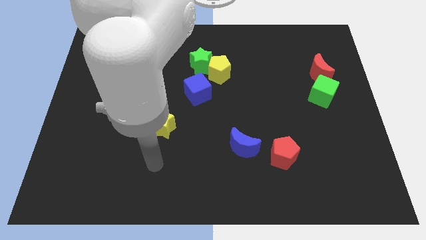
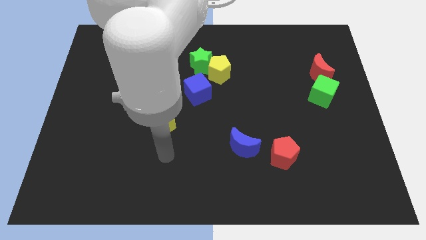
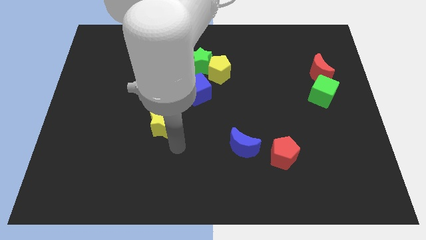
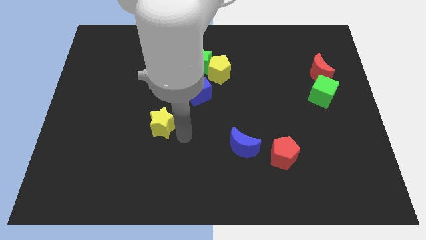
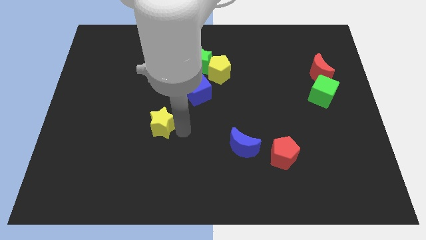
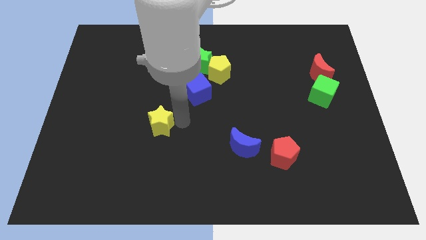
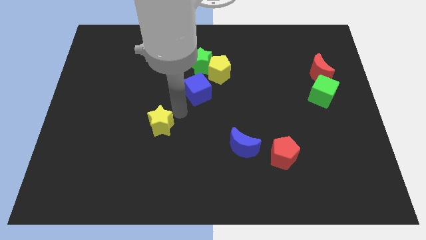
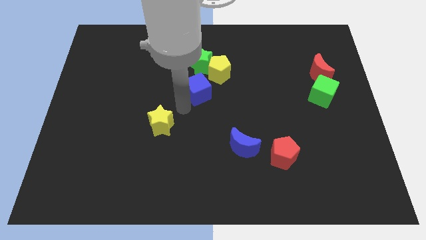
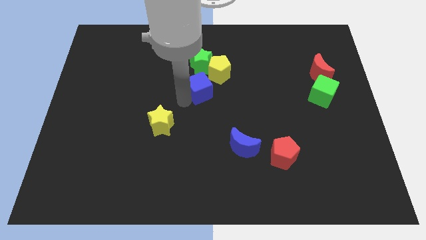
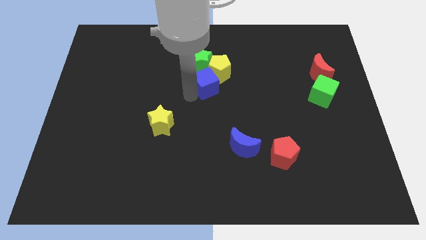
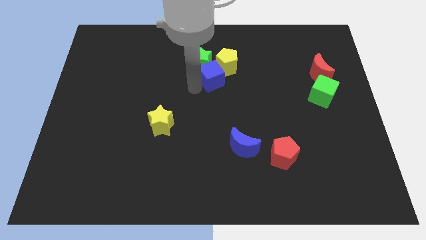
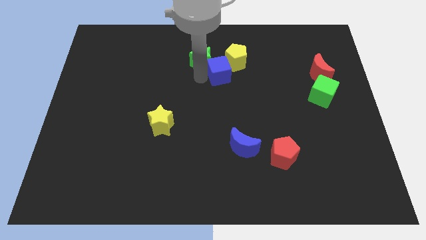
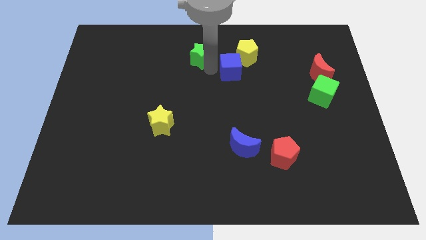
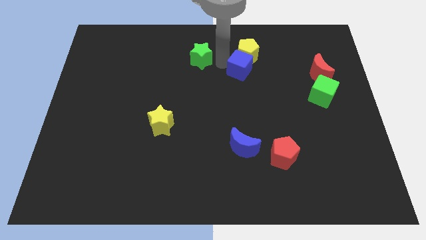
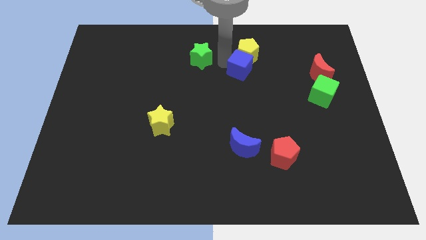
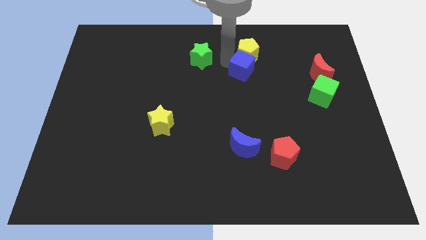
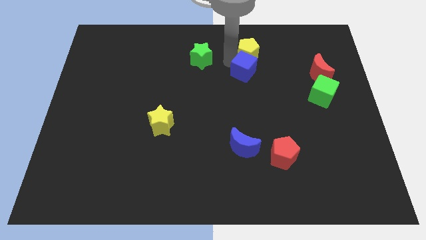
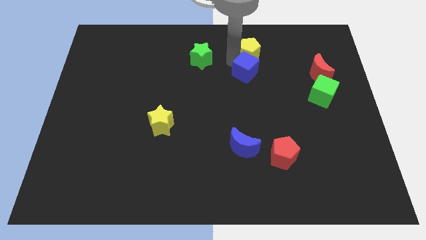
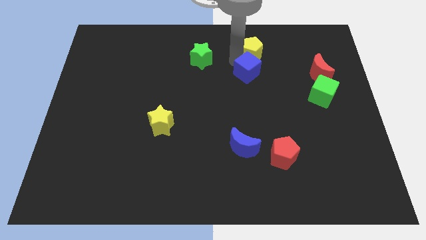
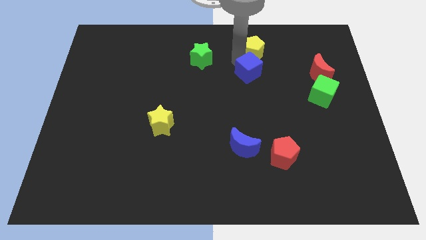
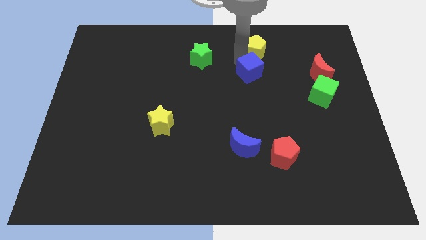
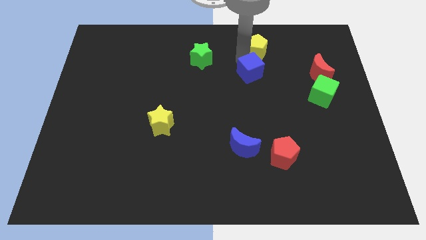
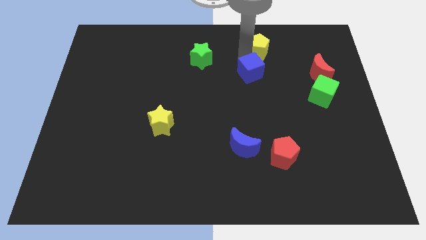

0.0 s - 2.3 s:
separate the yellow pentagon from the green star and blue cube

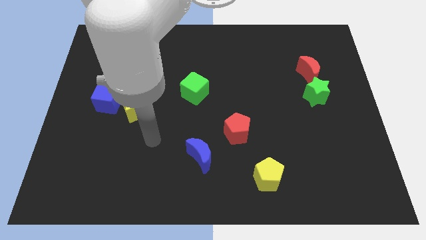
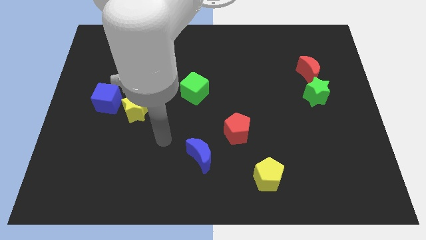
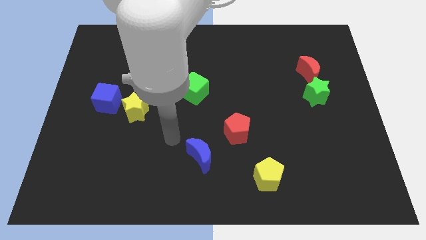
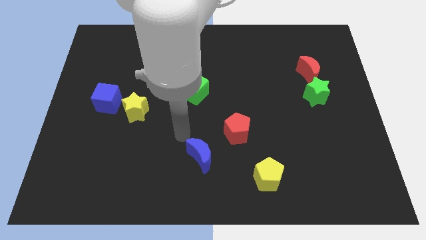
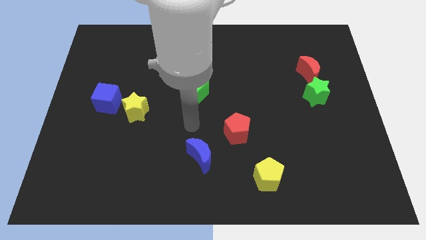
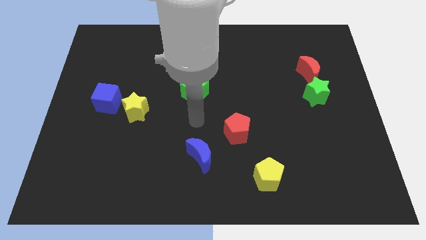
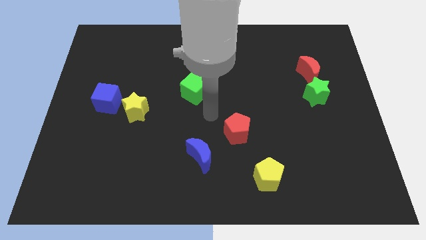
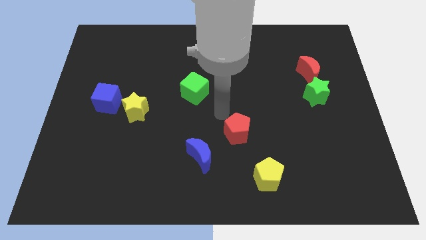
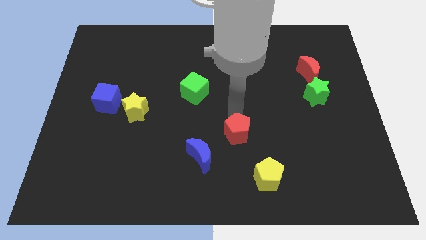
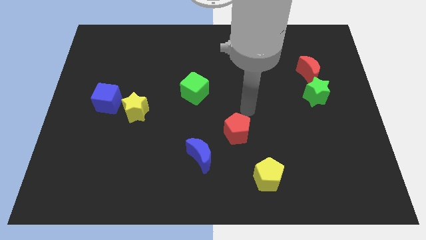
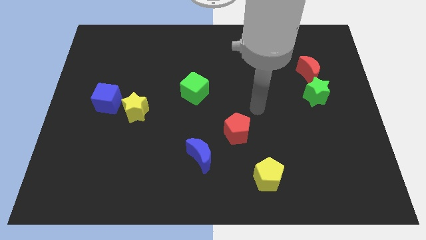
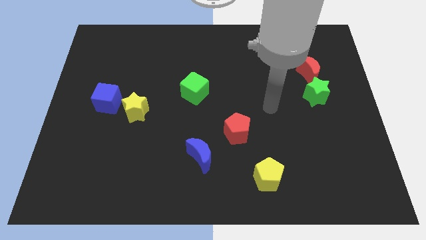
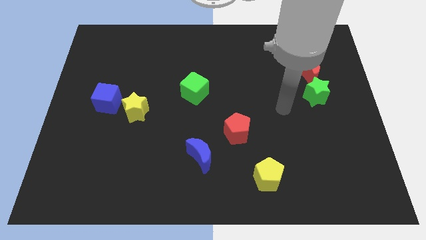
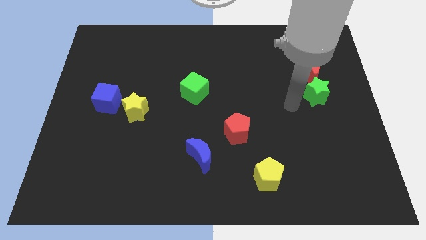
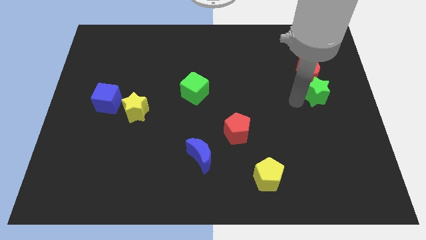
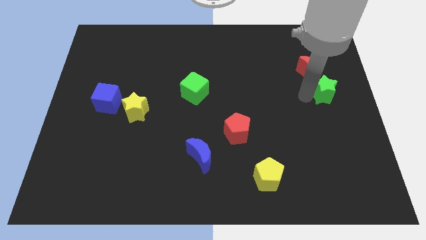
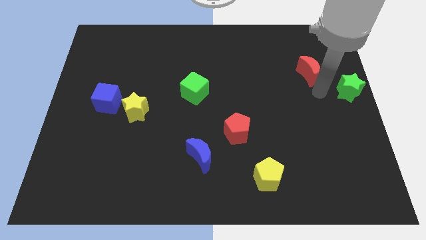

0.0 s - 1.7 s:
separate the red moon from the green star

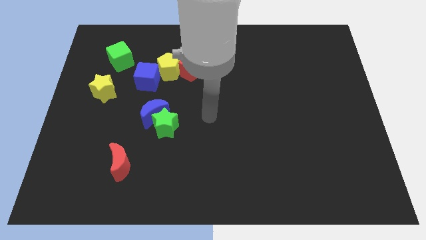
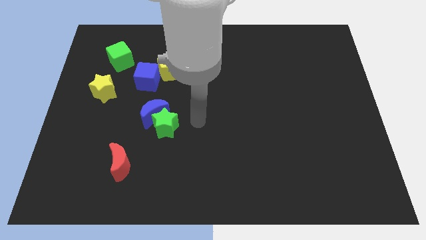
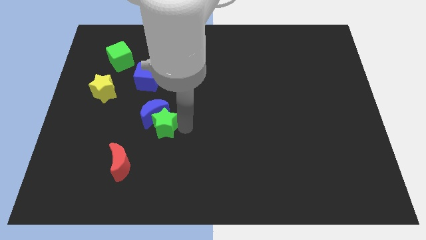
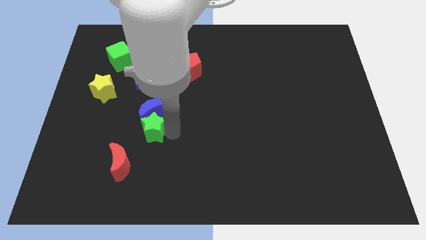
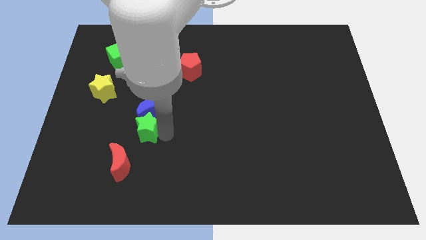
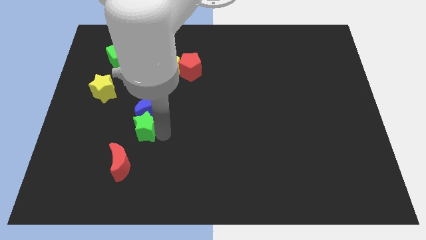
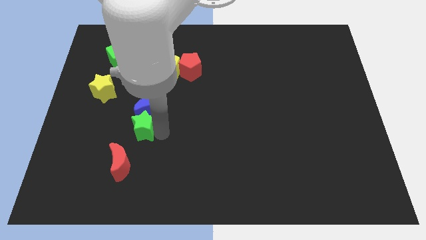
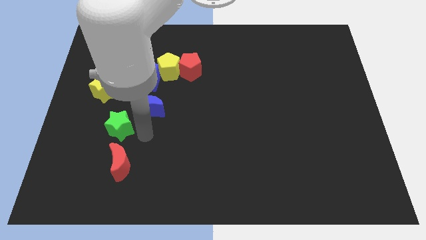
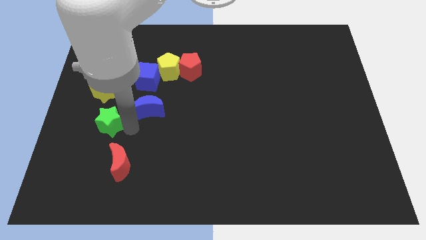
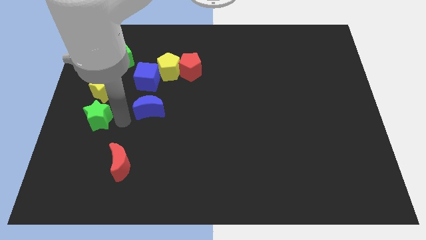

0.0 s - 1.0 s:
move the blue moon away from the green star

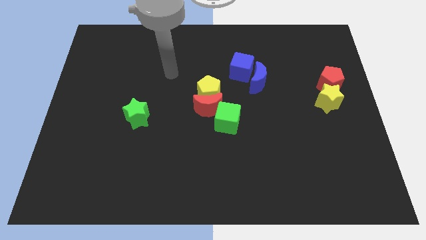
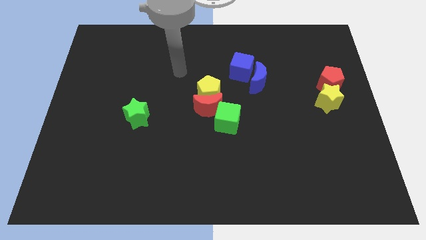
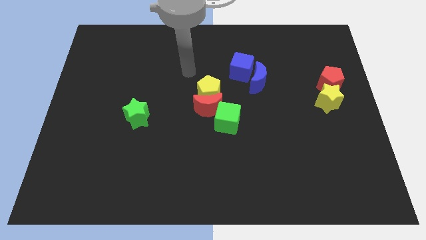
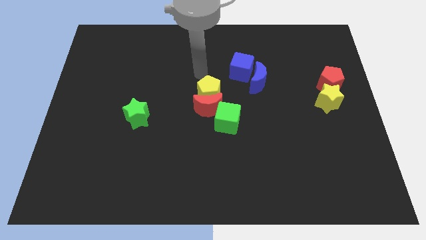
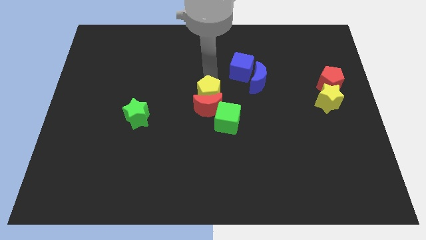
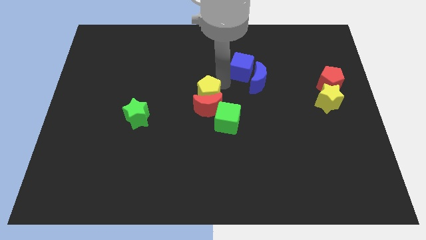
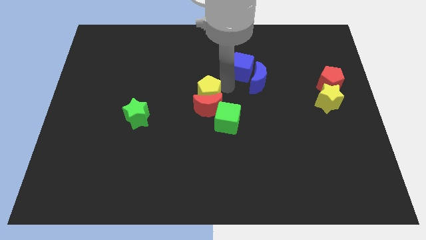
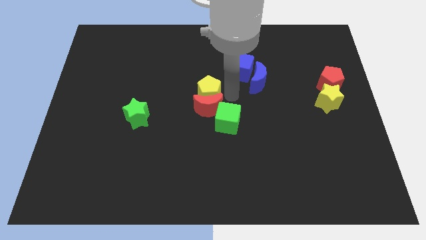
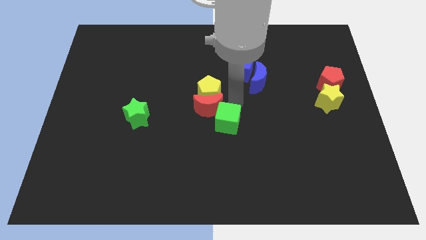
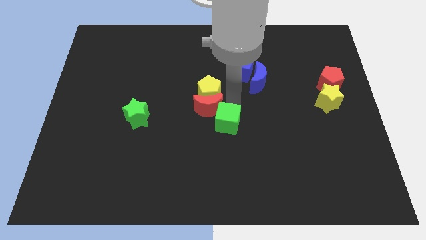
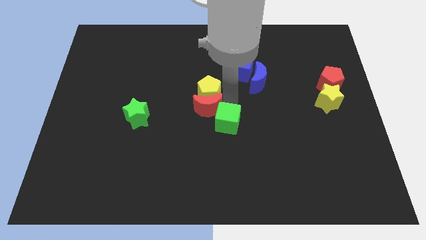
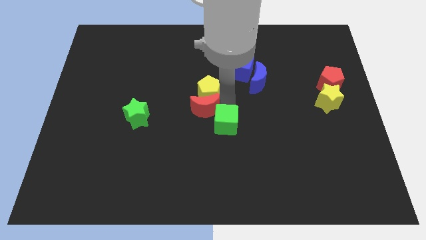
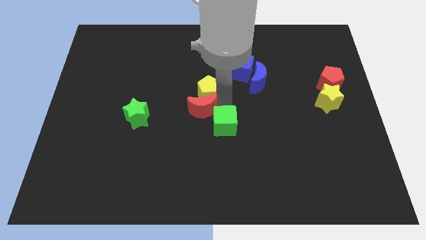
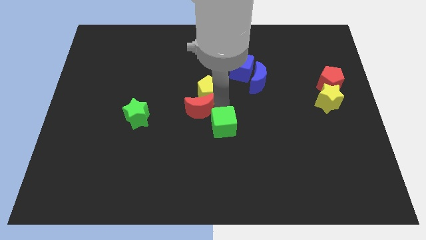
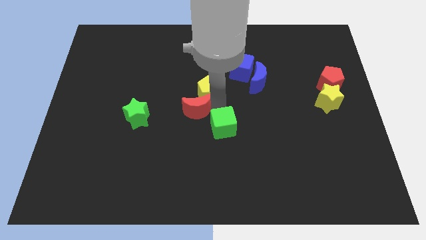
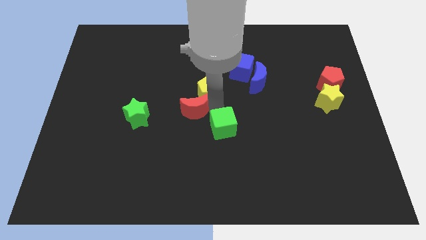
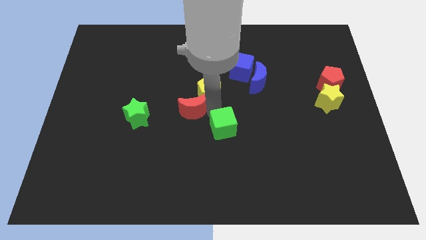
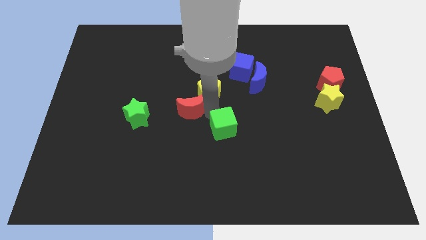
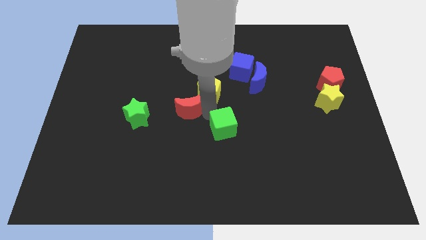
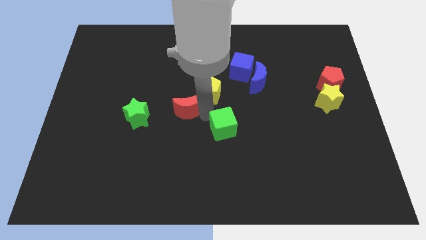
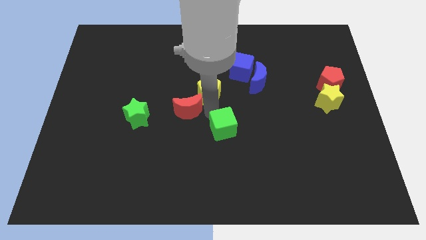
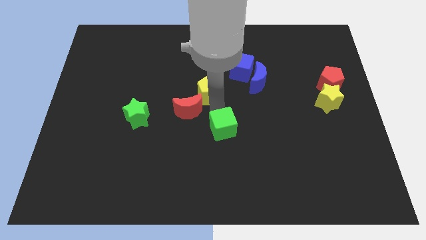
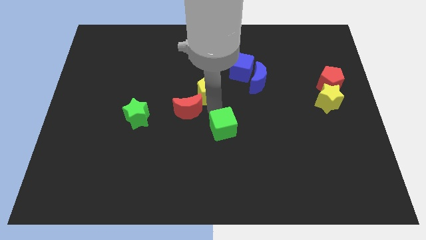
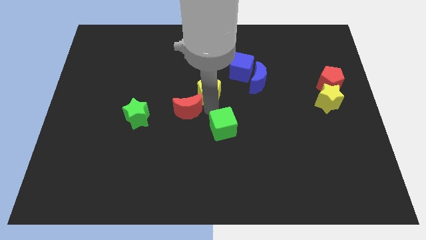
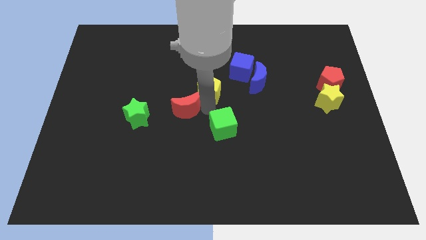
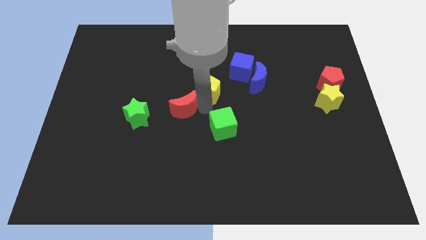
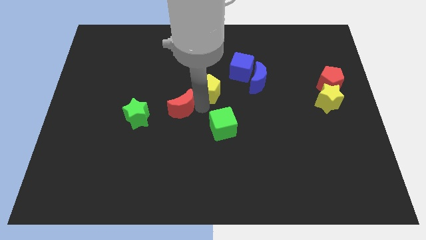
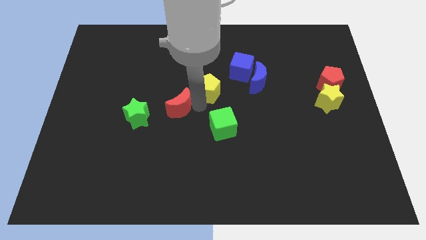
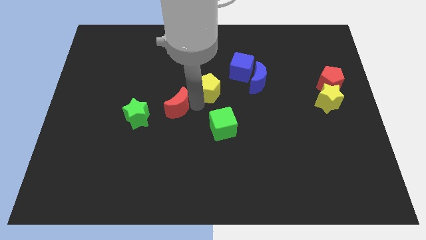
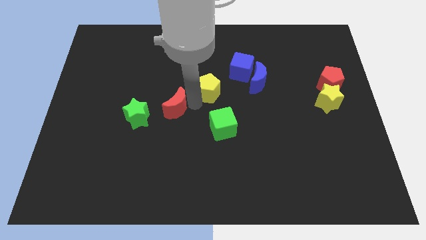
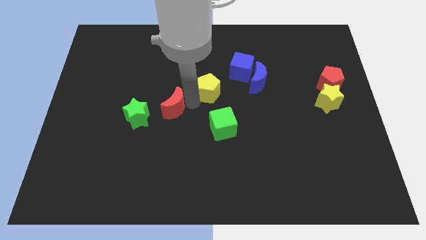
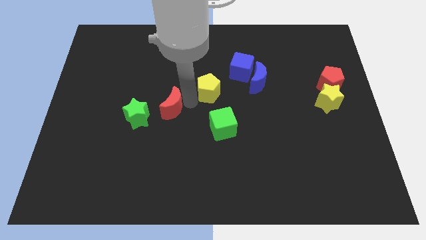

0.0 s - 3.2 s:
pull the red moon apart from the yellow pentagon and green cube

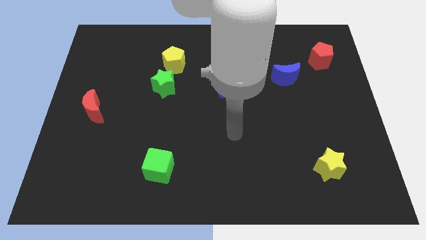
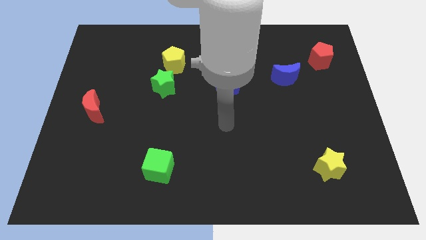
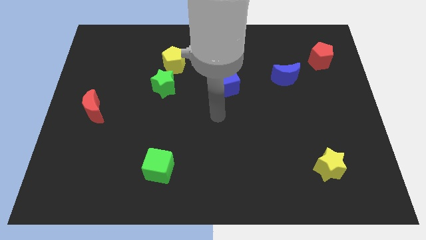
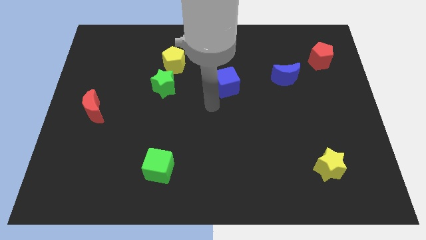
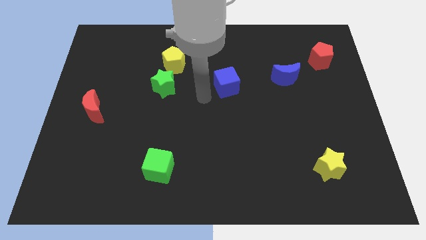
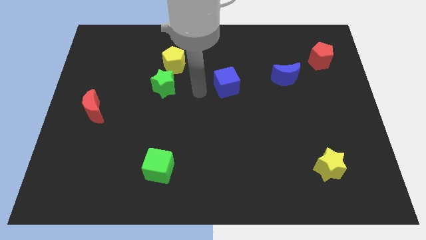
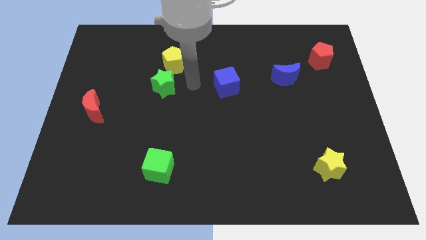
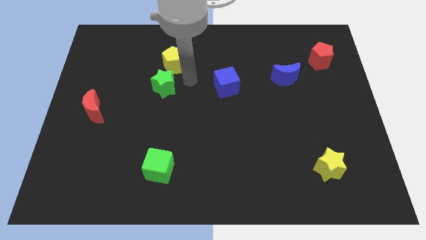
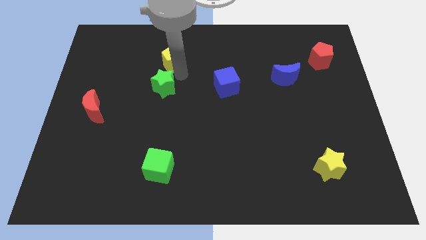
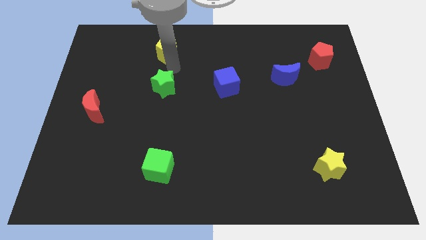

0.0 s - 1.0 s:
pull the green star apart from the yellow pentagon
